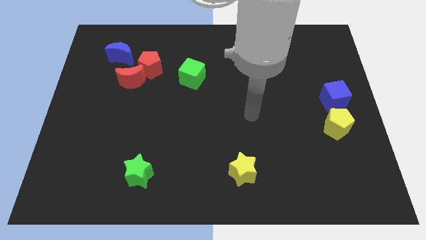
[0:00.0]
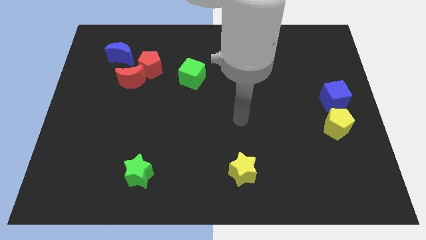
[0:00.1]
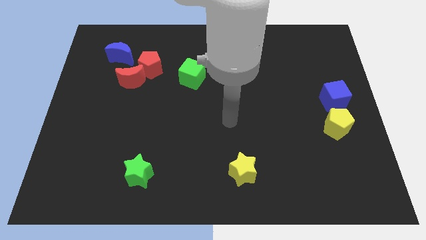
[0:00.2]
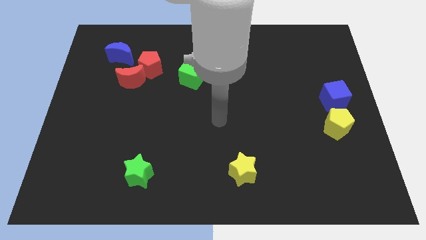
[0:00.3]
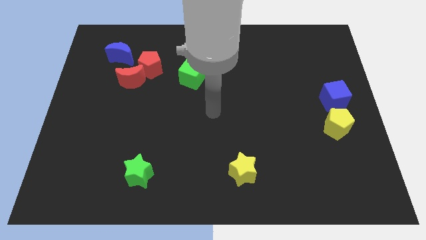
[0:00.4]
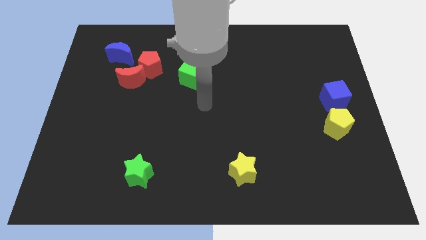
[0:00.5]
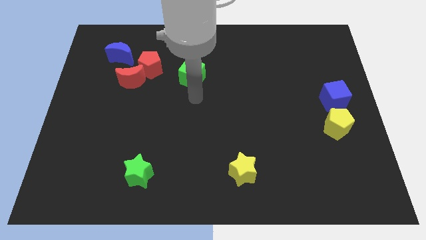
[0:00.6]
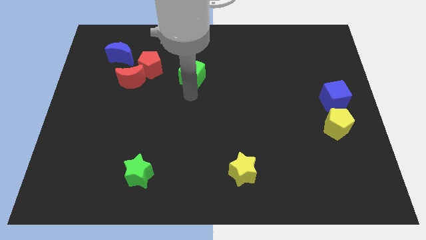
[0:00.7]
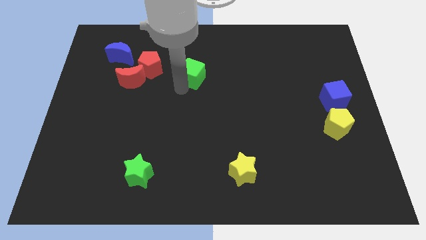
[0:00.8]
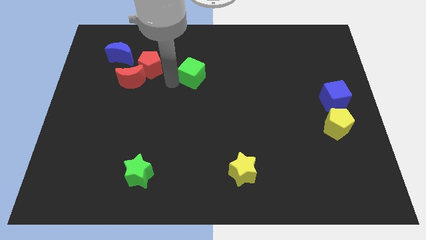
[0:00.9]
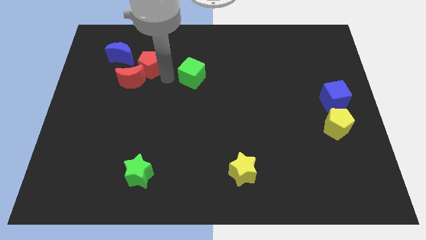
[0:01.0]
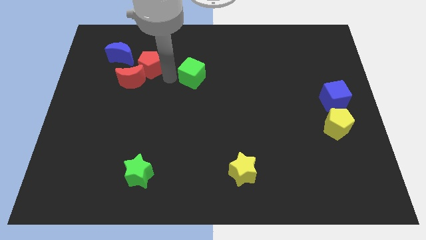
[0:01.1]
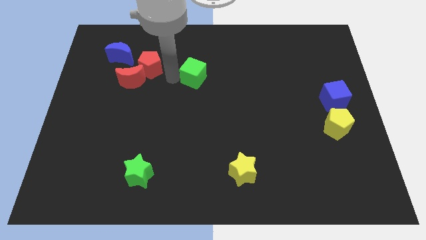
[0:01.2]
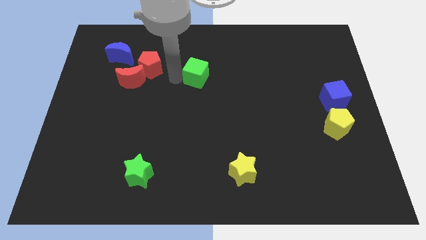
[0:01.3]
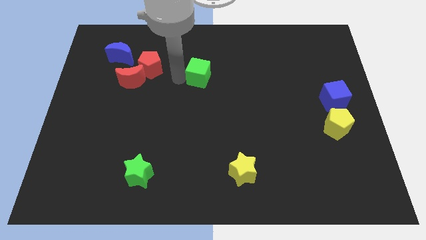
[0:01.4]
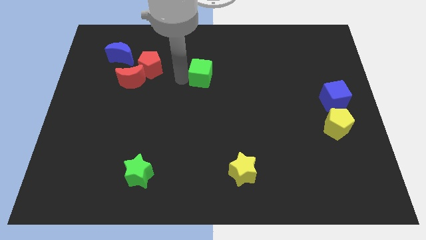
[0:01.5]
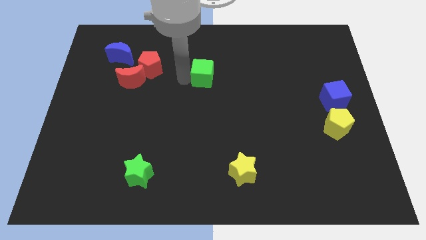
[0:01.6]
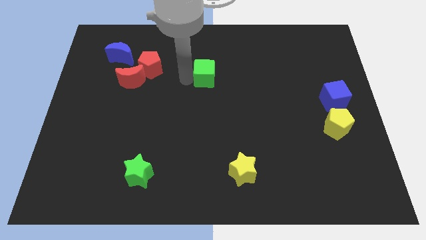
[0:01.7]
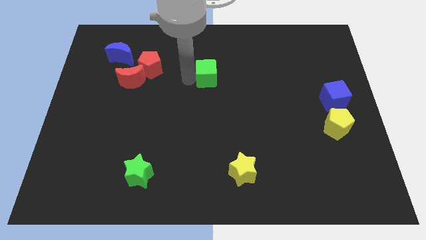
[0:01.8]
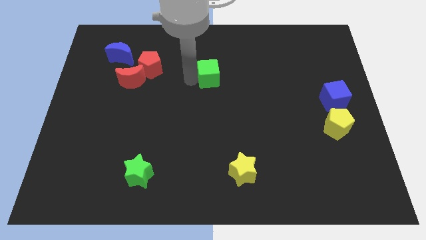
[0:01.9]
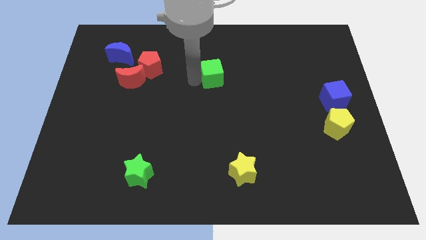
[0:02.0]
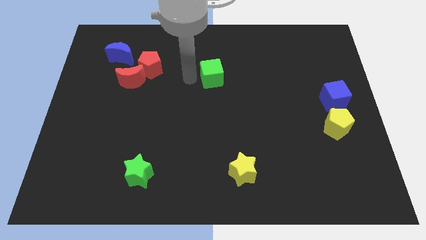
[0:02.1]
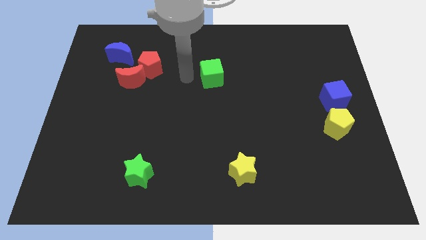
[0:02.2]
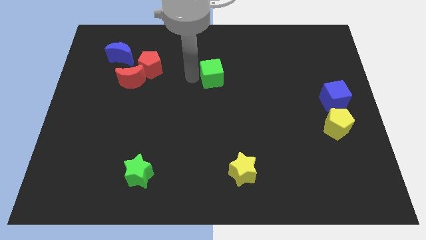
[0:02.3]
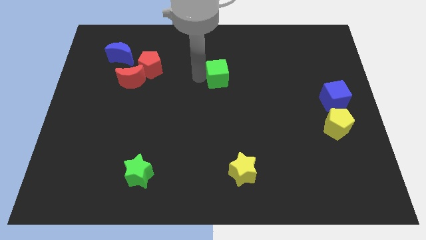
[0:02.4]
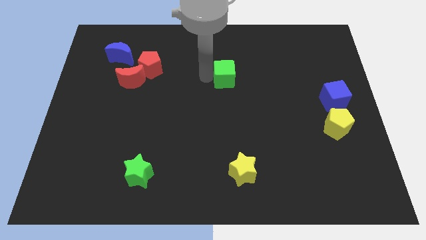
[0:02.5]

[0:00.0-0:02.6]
push the green cube a little to the right

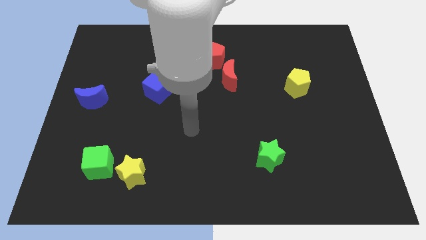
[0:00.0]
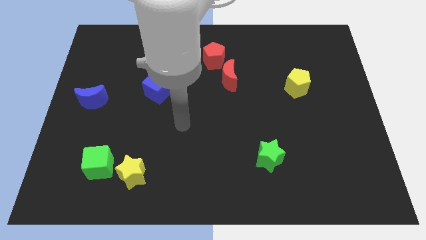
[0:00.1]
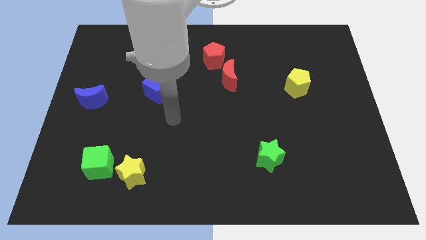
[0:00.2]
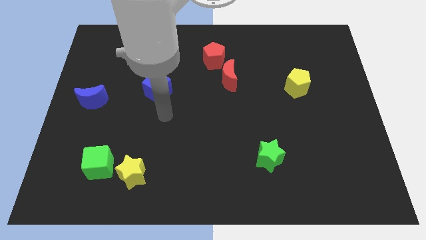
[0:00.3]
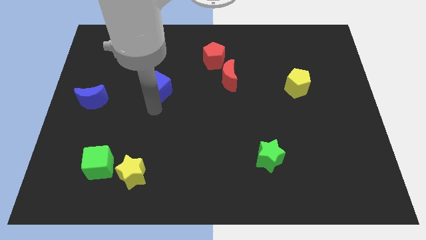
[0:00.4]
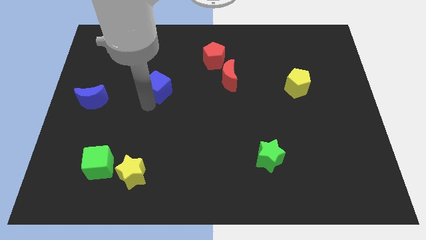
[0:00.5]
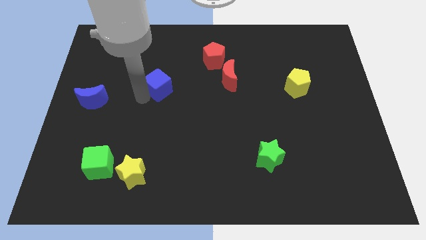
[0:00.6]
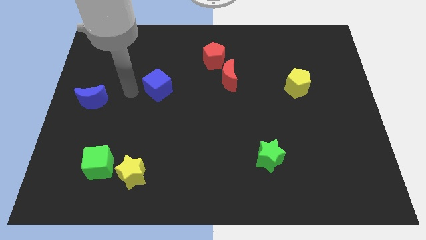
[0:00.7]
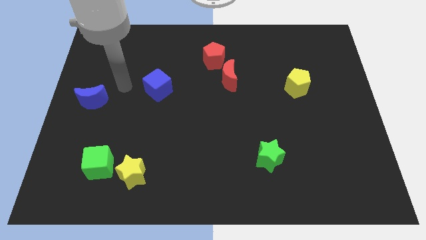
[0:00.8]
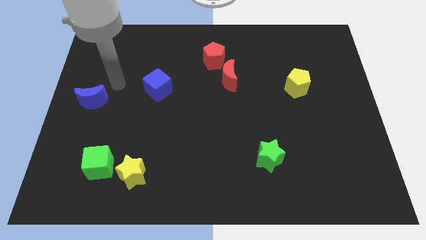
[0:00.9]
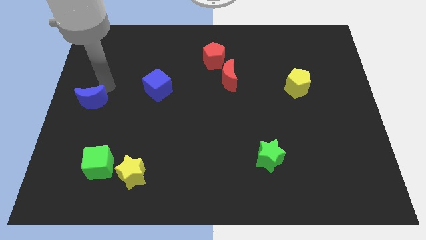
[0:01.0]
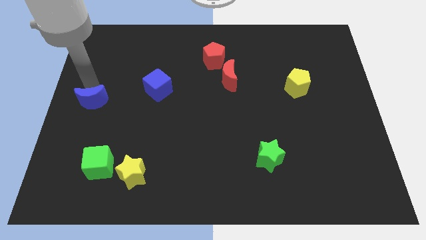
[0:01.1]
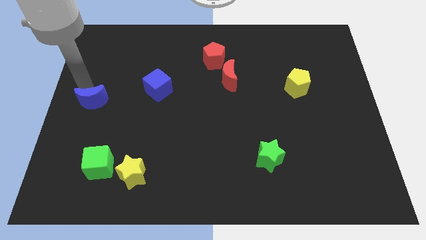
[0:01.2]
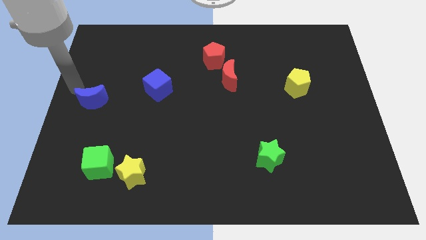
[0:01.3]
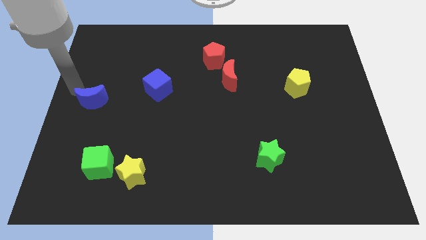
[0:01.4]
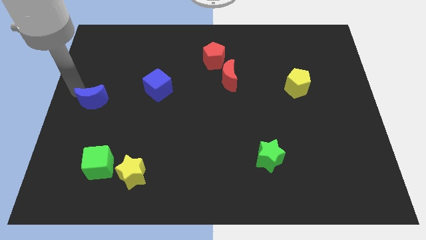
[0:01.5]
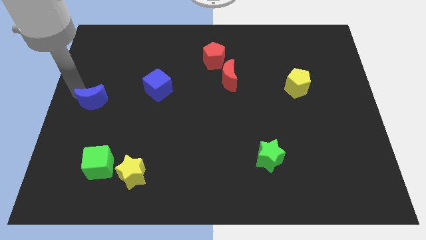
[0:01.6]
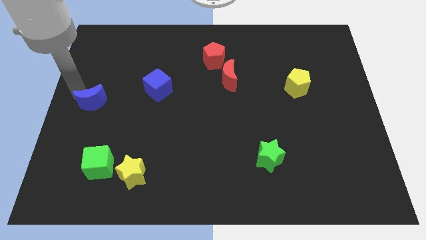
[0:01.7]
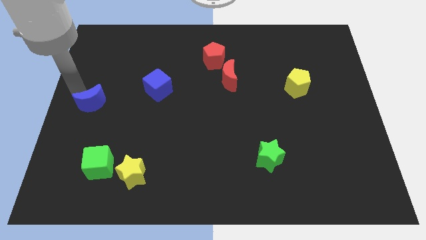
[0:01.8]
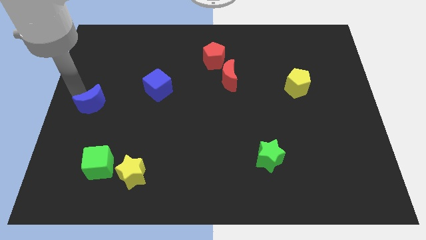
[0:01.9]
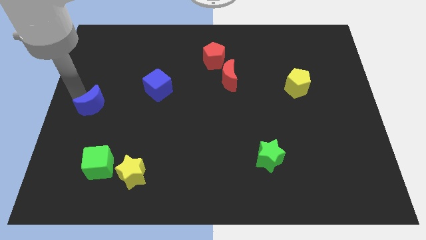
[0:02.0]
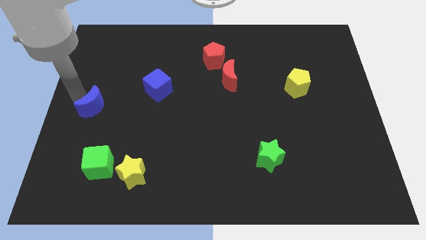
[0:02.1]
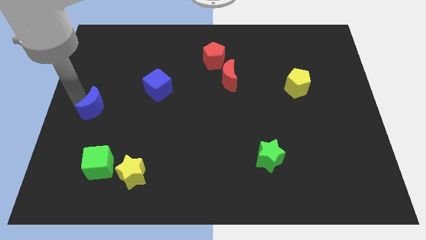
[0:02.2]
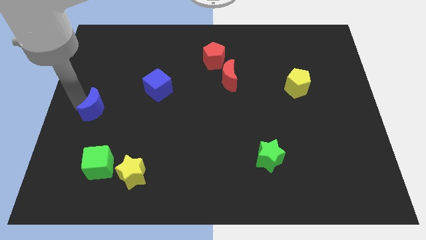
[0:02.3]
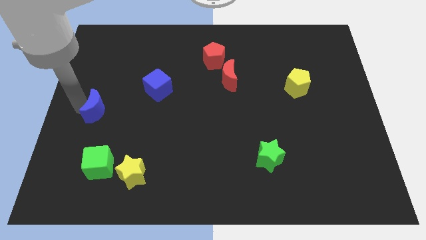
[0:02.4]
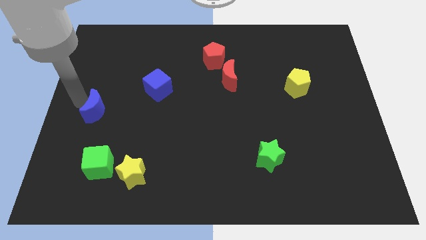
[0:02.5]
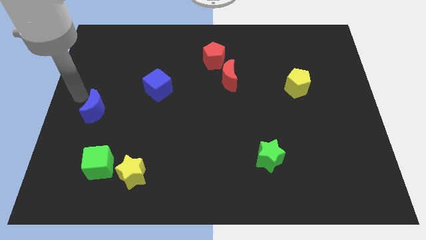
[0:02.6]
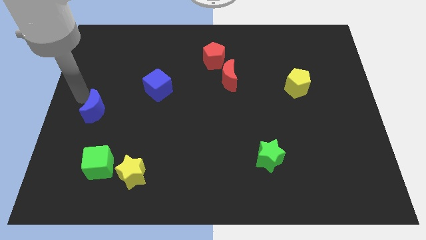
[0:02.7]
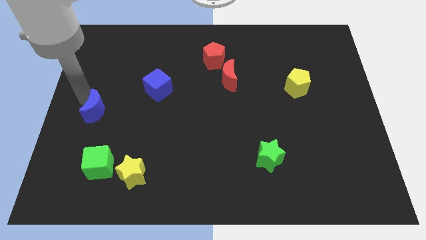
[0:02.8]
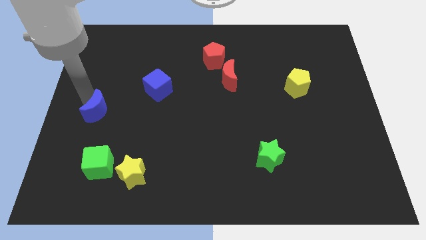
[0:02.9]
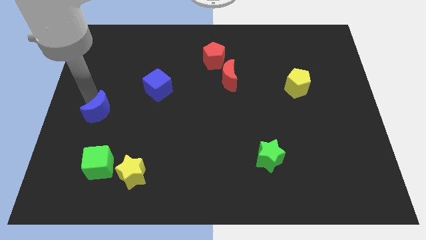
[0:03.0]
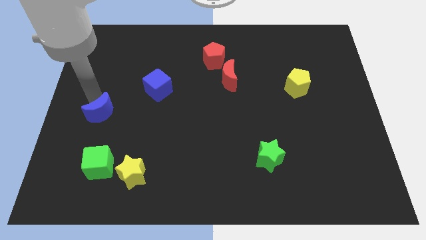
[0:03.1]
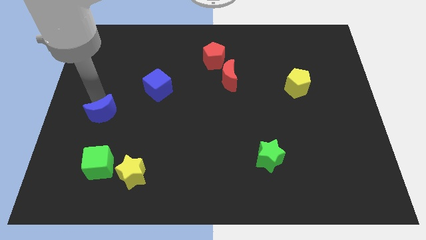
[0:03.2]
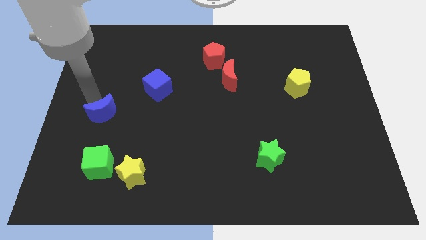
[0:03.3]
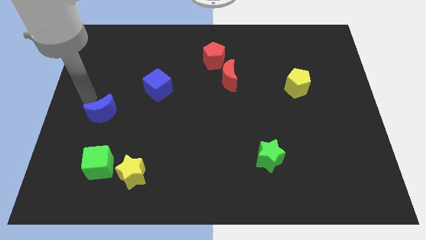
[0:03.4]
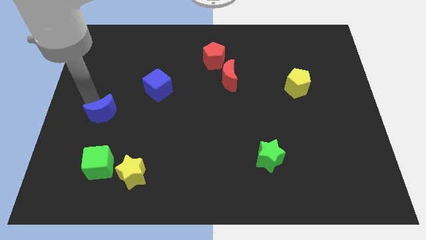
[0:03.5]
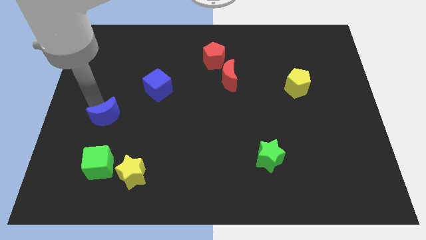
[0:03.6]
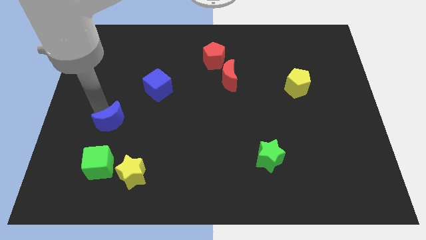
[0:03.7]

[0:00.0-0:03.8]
move the blue moon diagonally downwards and right somewhat

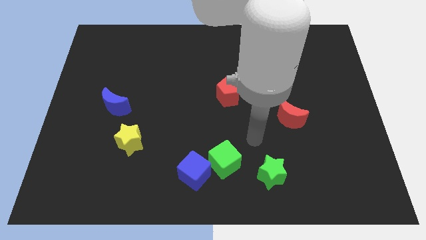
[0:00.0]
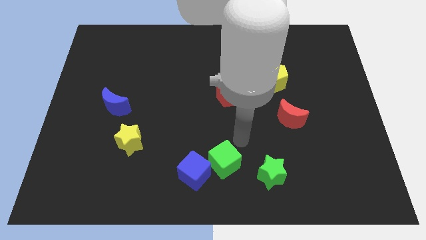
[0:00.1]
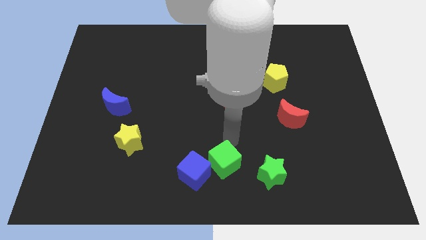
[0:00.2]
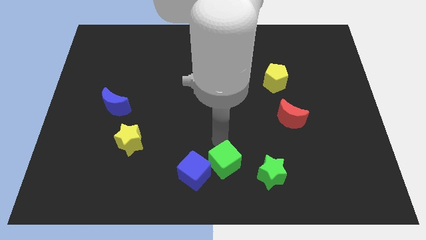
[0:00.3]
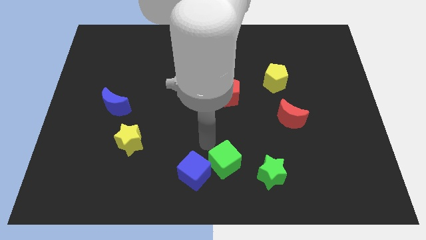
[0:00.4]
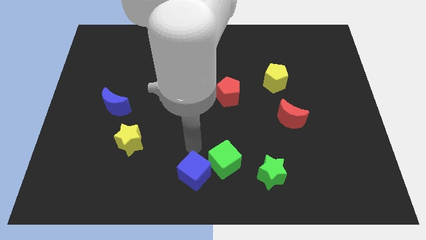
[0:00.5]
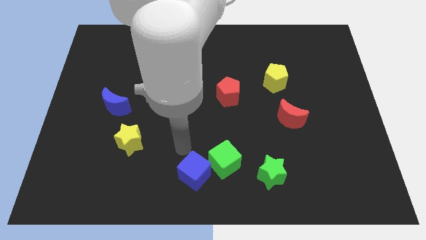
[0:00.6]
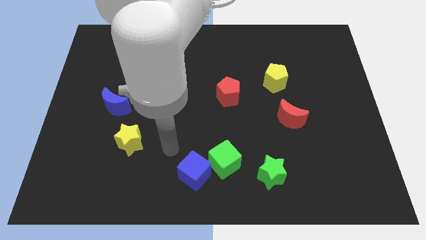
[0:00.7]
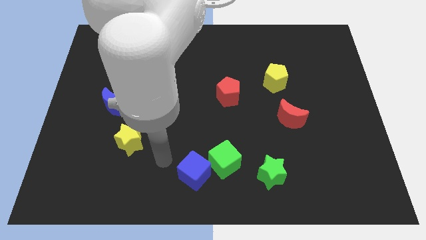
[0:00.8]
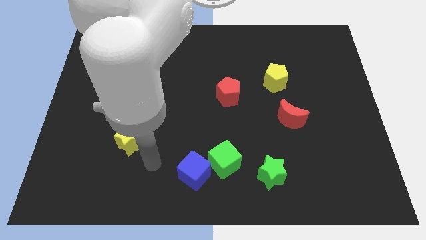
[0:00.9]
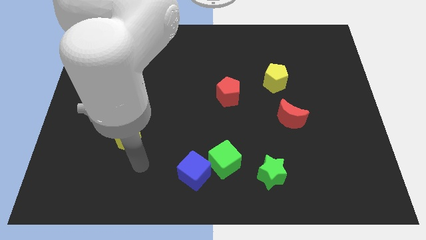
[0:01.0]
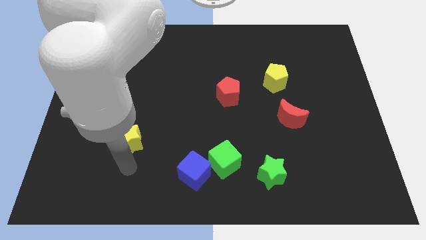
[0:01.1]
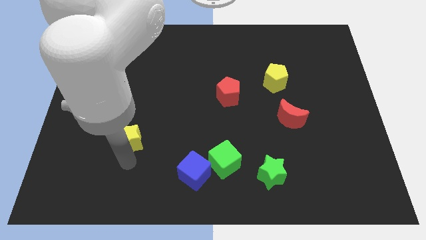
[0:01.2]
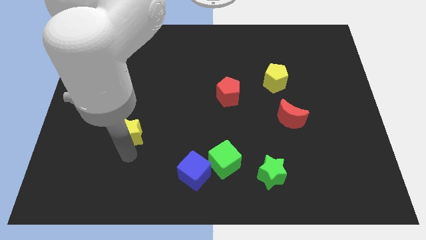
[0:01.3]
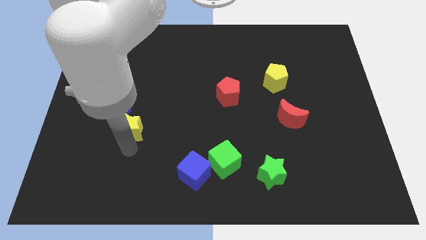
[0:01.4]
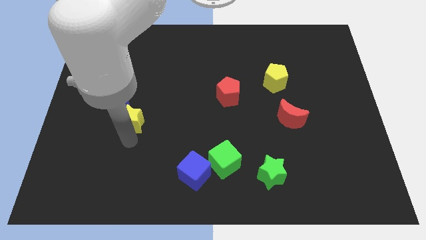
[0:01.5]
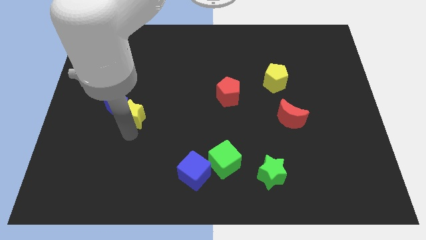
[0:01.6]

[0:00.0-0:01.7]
slide the yellow star slightly up
